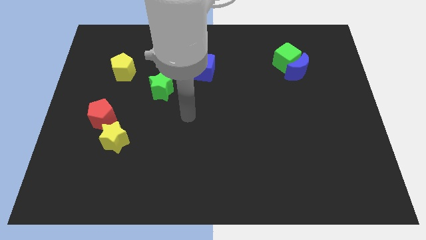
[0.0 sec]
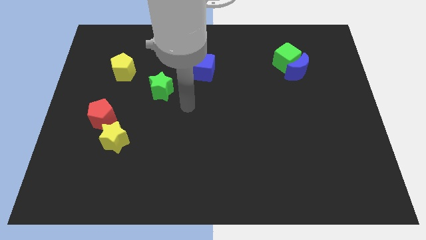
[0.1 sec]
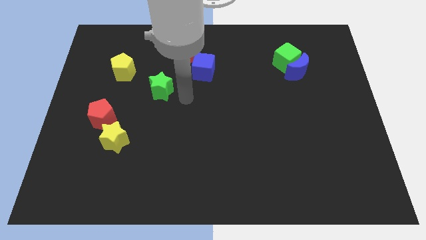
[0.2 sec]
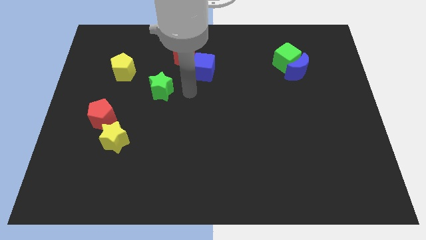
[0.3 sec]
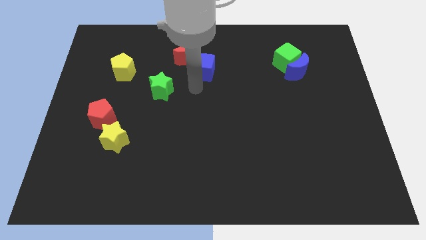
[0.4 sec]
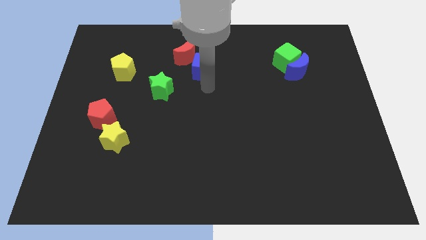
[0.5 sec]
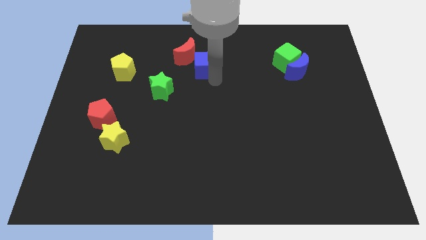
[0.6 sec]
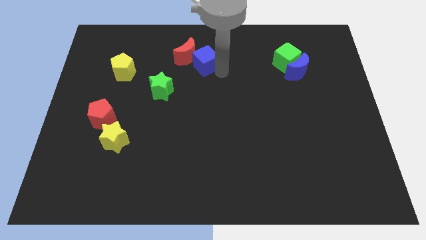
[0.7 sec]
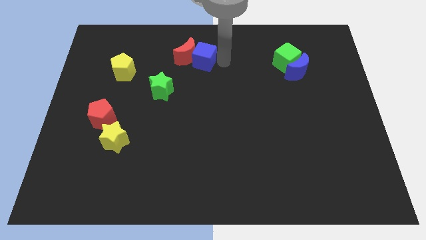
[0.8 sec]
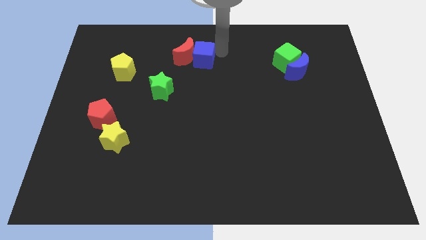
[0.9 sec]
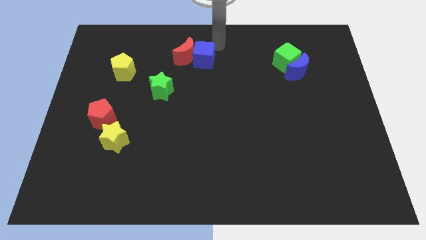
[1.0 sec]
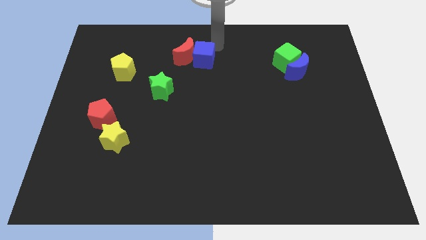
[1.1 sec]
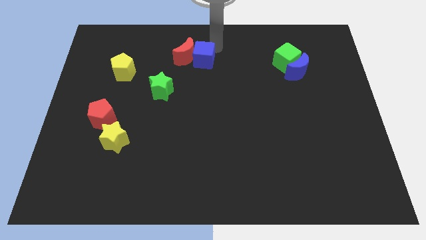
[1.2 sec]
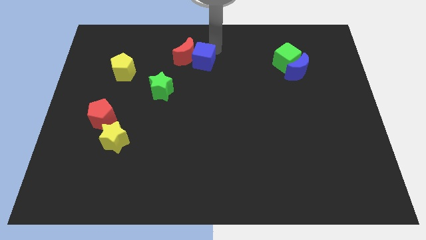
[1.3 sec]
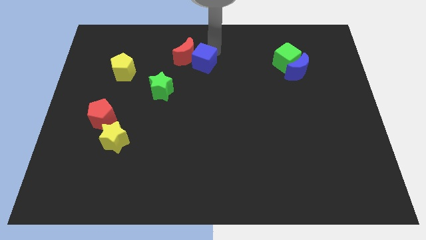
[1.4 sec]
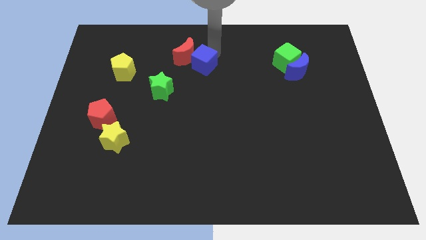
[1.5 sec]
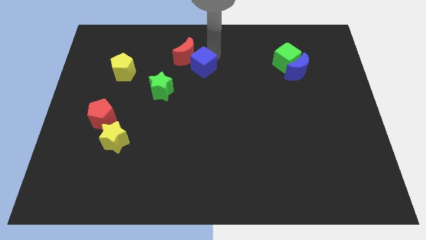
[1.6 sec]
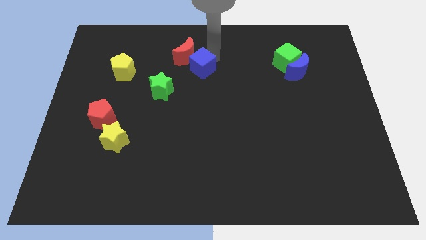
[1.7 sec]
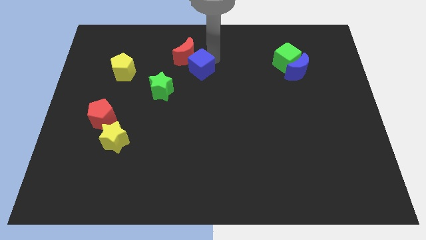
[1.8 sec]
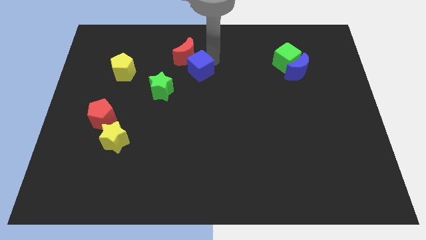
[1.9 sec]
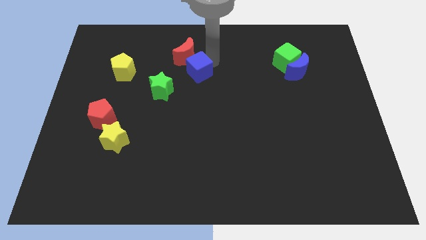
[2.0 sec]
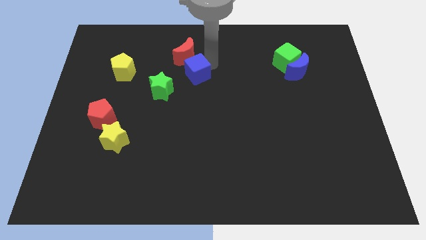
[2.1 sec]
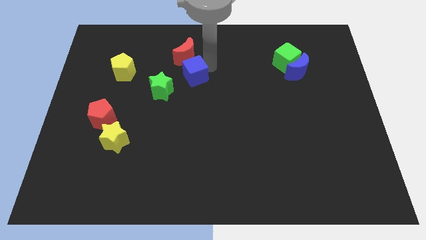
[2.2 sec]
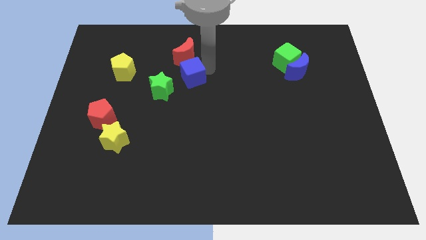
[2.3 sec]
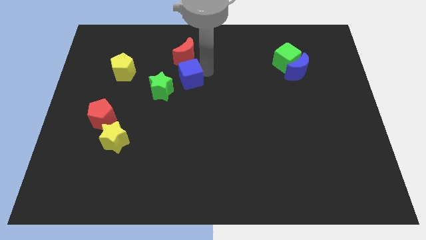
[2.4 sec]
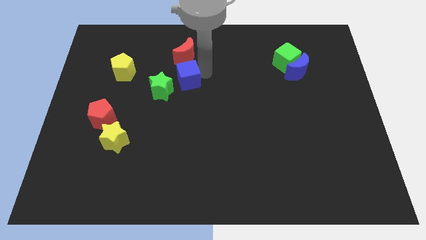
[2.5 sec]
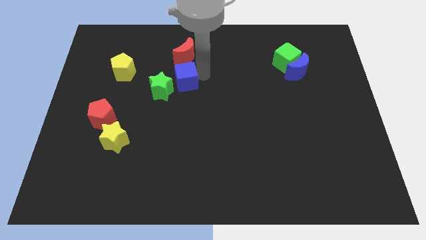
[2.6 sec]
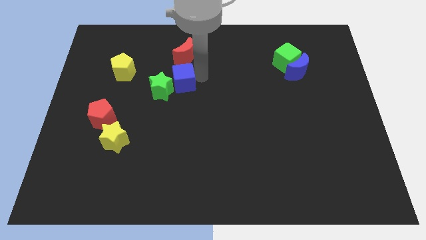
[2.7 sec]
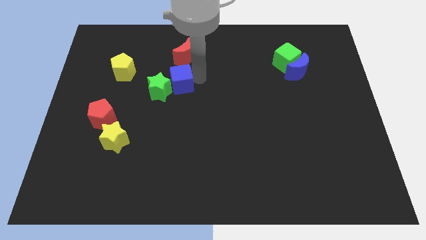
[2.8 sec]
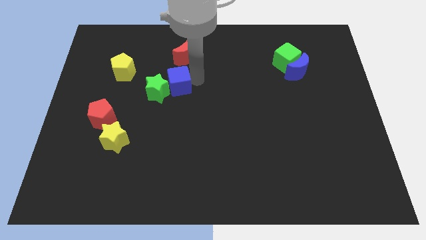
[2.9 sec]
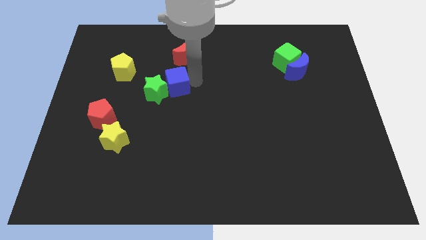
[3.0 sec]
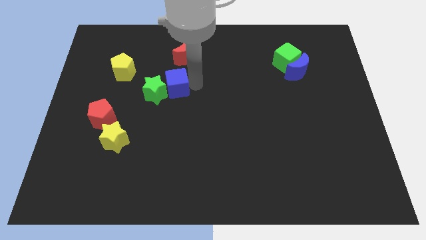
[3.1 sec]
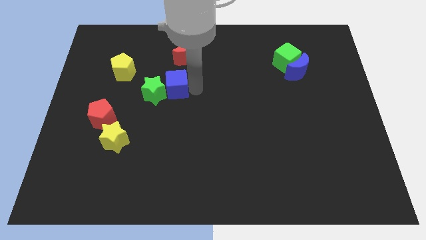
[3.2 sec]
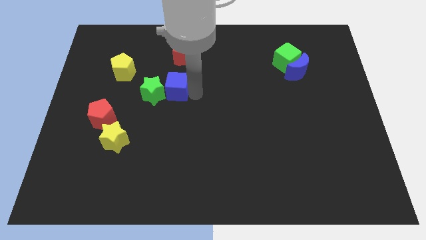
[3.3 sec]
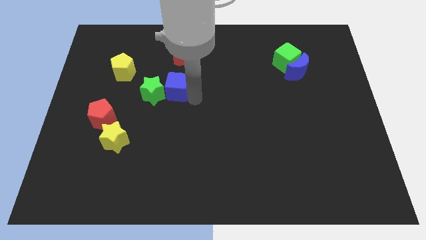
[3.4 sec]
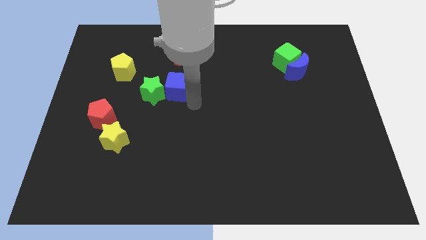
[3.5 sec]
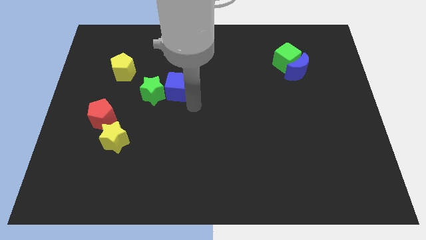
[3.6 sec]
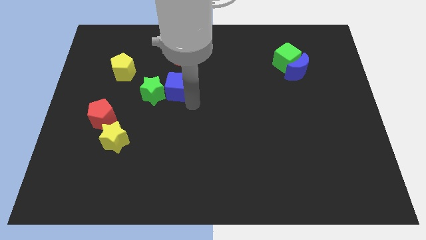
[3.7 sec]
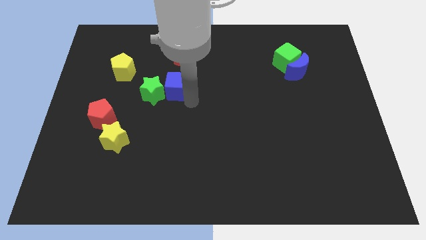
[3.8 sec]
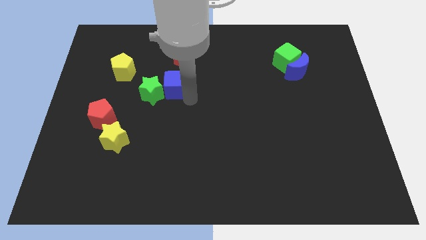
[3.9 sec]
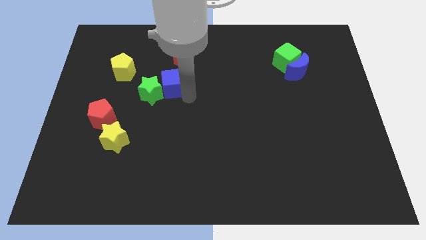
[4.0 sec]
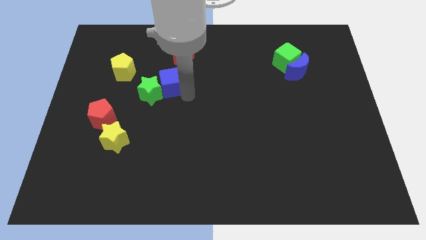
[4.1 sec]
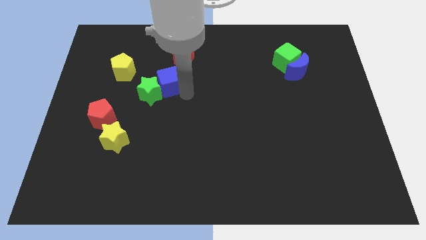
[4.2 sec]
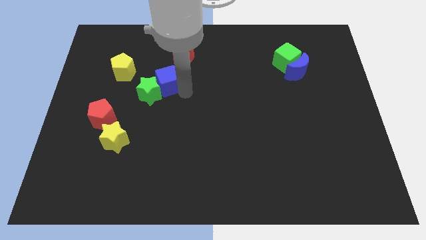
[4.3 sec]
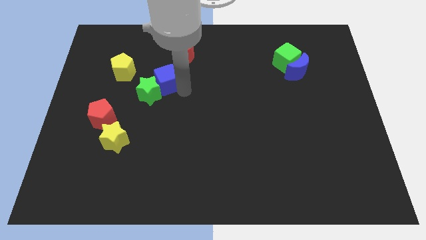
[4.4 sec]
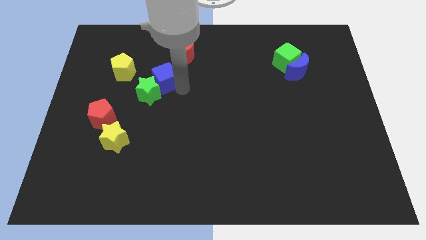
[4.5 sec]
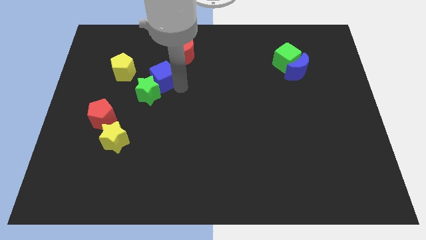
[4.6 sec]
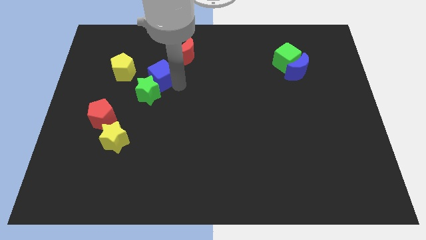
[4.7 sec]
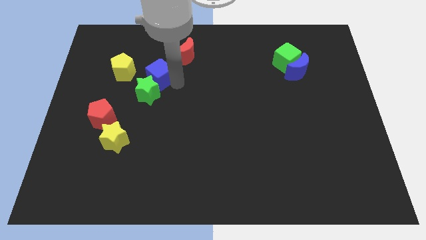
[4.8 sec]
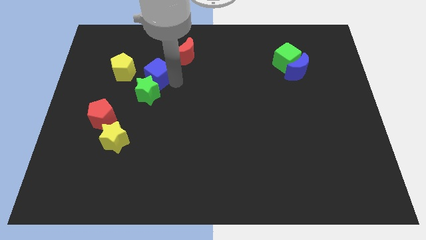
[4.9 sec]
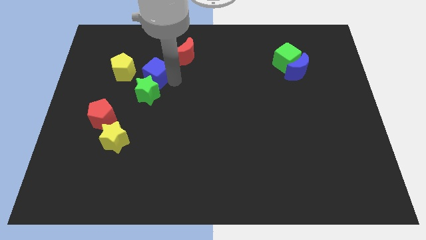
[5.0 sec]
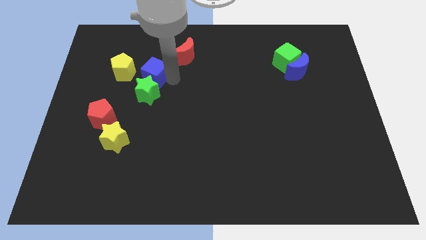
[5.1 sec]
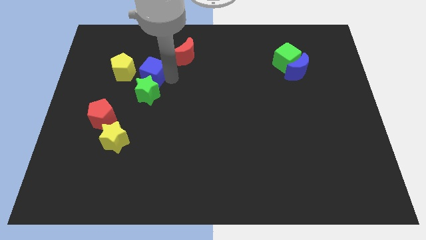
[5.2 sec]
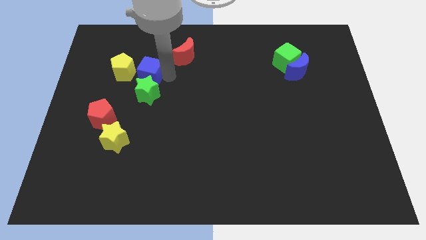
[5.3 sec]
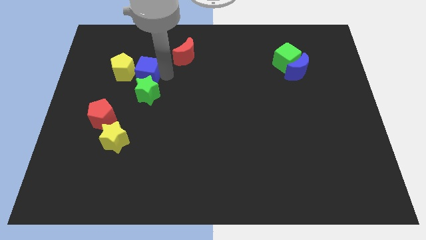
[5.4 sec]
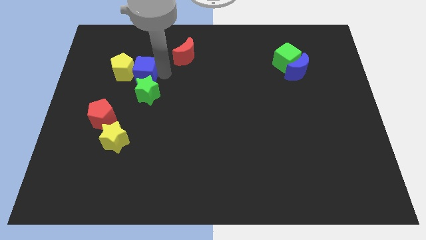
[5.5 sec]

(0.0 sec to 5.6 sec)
move the blue cube towards the yellow pentagon

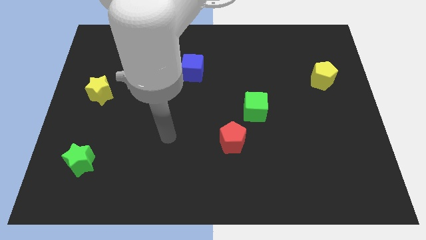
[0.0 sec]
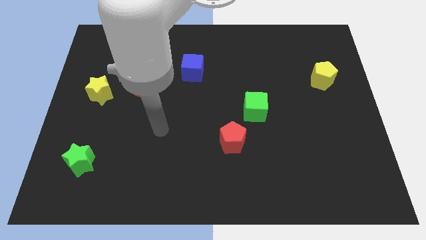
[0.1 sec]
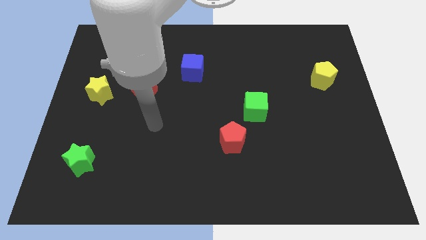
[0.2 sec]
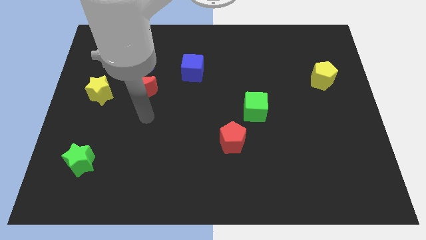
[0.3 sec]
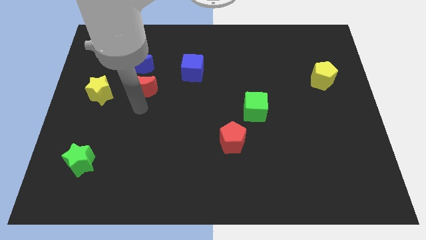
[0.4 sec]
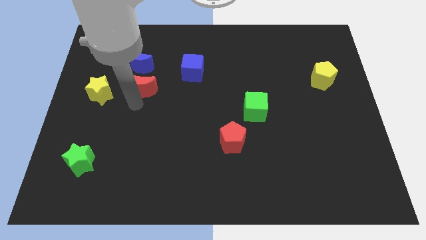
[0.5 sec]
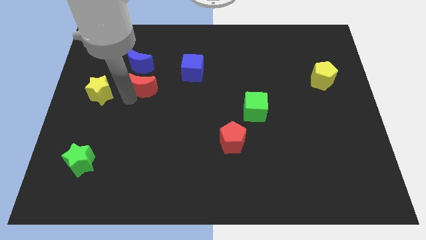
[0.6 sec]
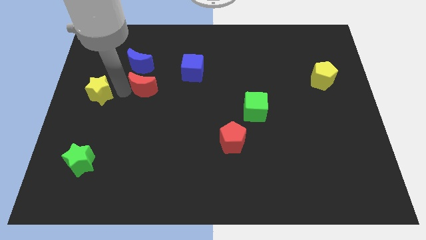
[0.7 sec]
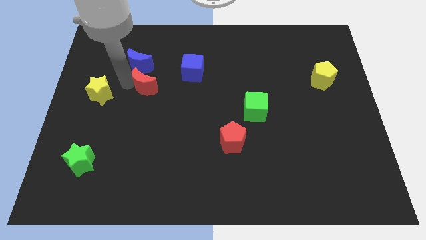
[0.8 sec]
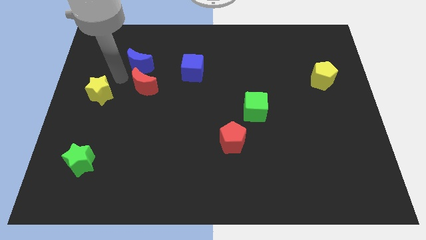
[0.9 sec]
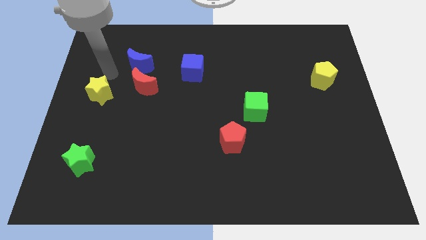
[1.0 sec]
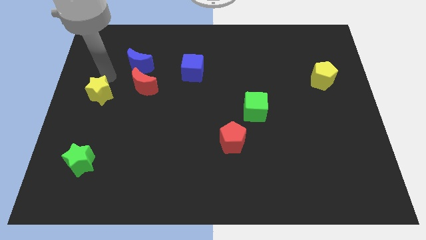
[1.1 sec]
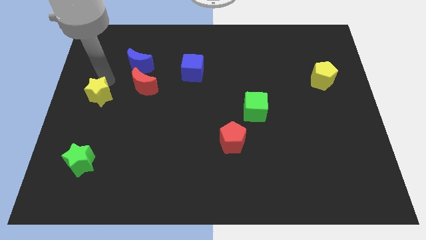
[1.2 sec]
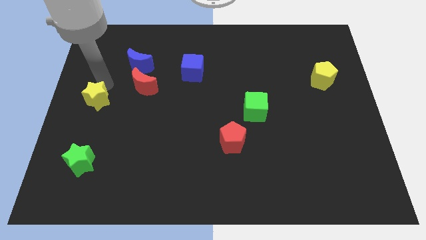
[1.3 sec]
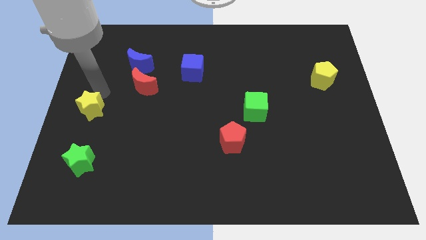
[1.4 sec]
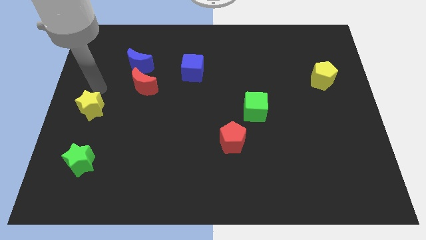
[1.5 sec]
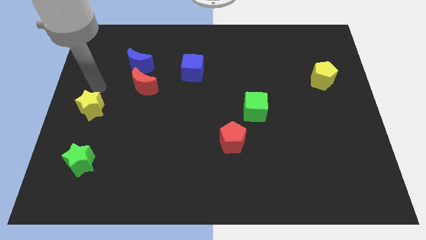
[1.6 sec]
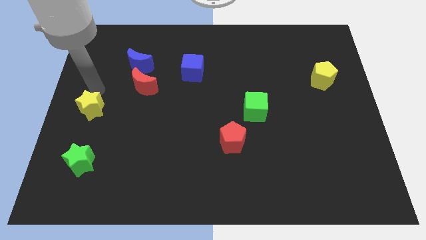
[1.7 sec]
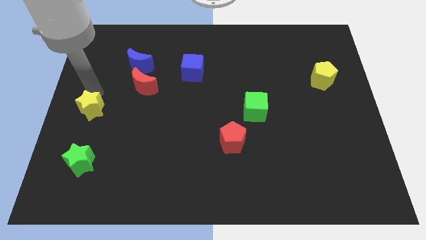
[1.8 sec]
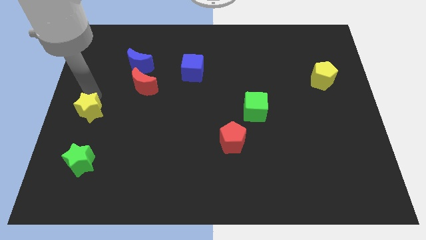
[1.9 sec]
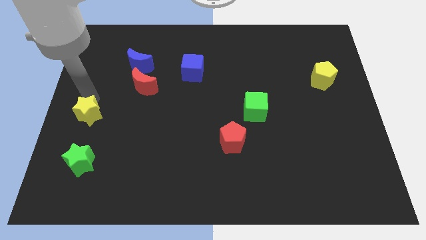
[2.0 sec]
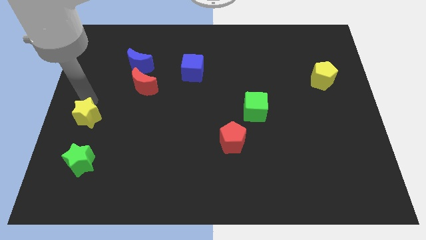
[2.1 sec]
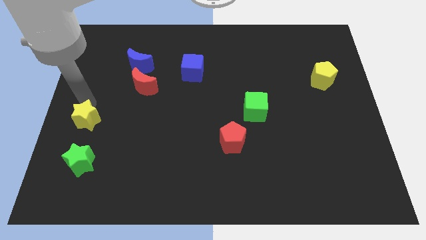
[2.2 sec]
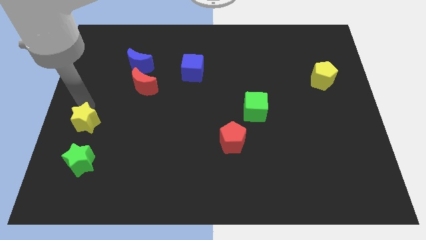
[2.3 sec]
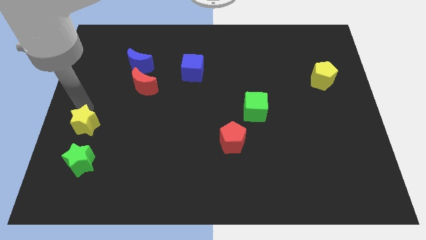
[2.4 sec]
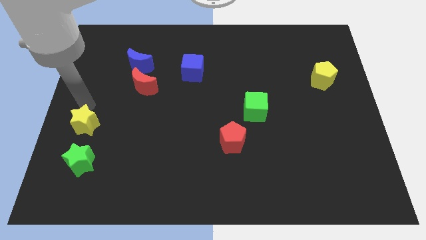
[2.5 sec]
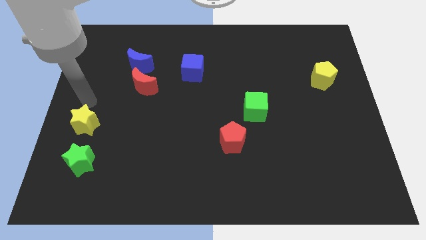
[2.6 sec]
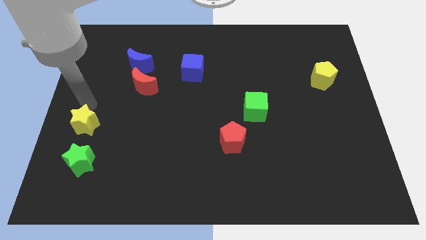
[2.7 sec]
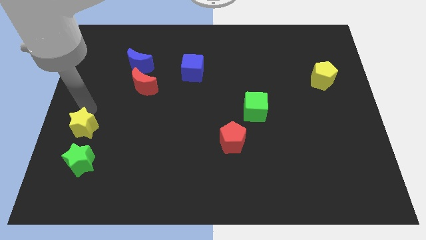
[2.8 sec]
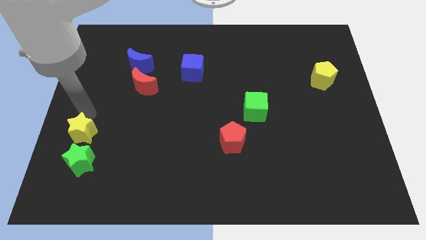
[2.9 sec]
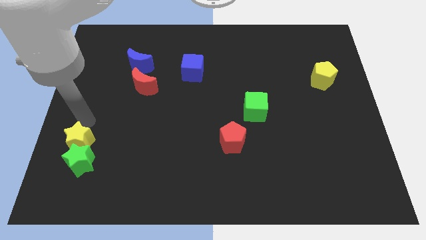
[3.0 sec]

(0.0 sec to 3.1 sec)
push the yellow star to the green star
